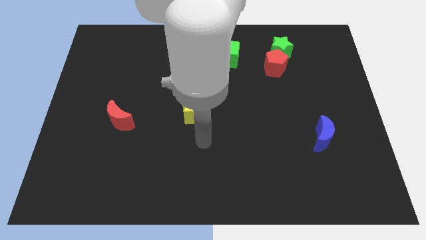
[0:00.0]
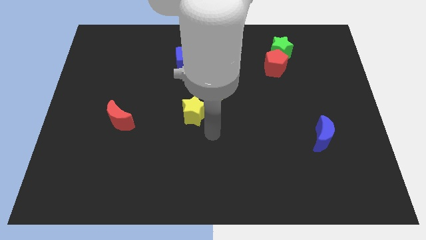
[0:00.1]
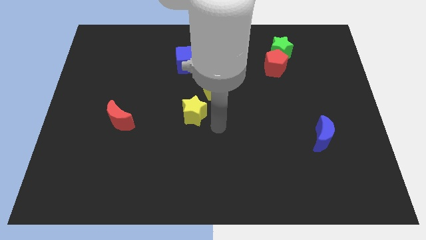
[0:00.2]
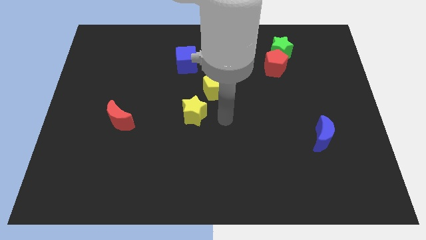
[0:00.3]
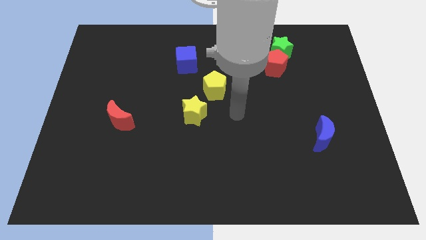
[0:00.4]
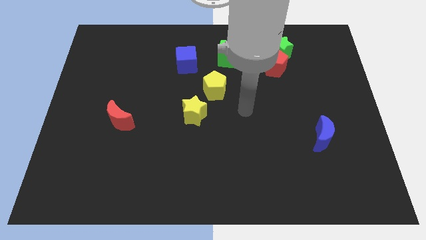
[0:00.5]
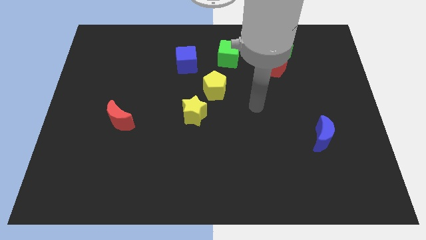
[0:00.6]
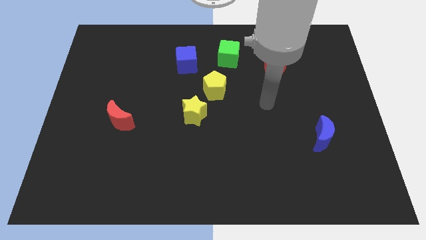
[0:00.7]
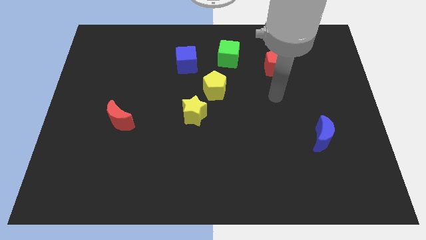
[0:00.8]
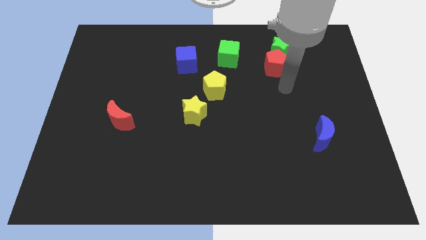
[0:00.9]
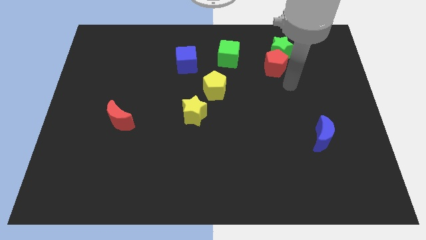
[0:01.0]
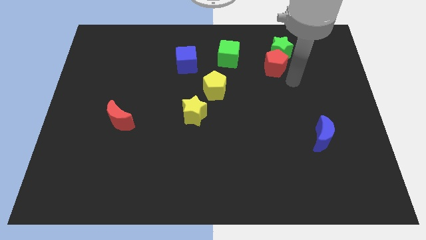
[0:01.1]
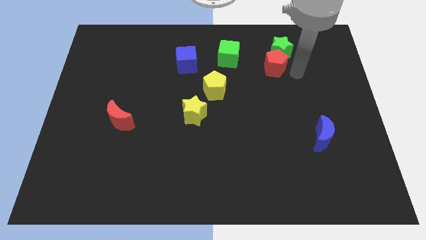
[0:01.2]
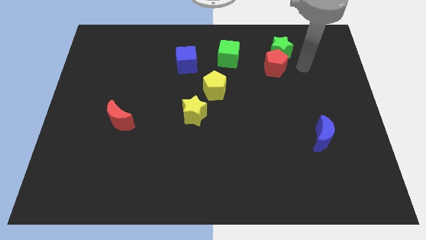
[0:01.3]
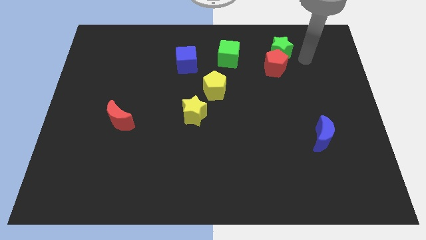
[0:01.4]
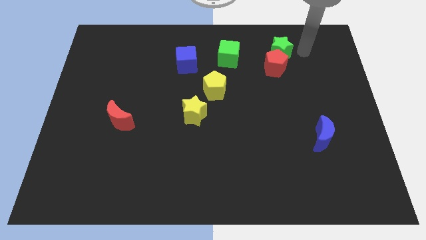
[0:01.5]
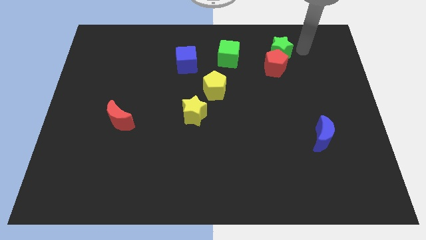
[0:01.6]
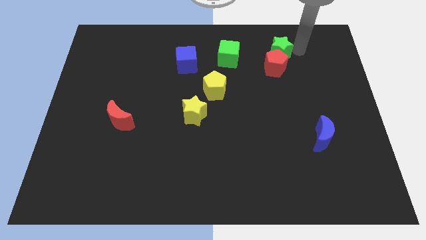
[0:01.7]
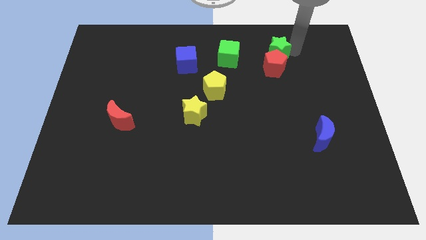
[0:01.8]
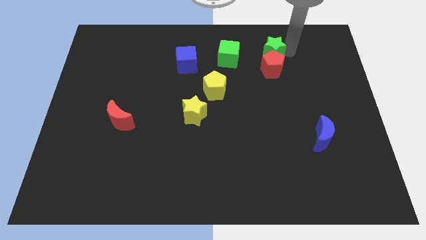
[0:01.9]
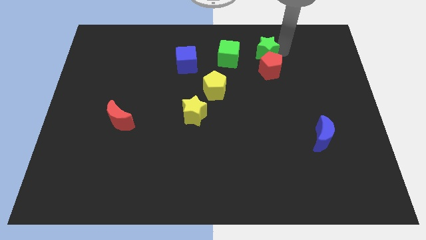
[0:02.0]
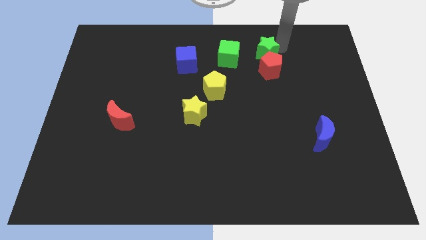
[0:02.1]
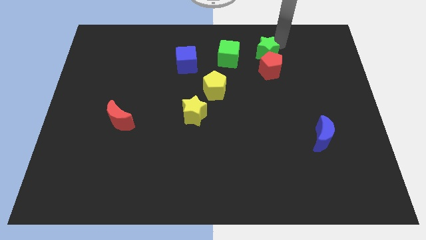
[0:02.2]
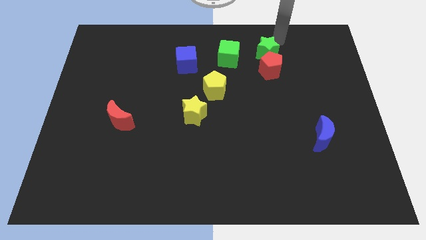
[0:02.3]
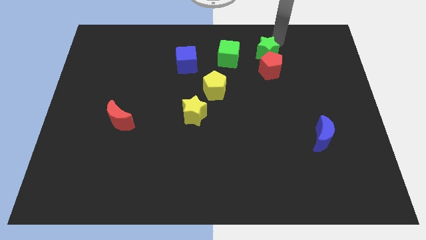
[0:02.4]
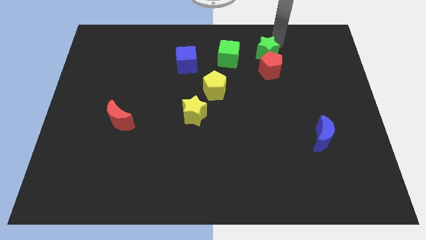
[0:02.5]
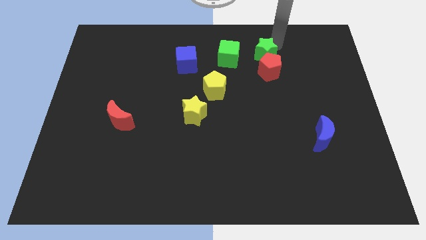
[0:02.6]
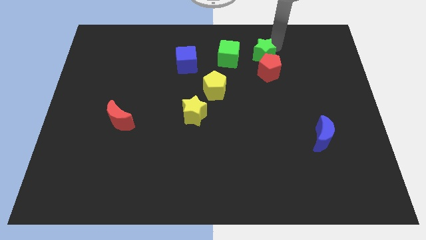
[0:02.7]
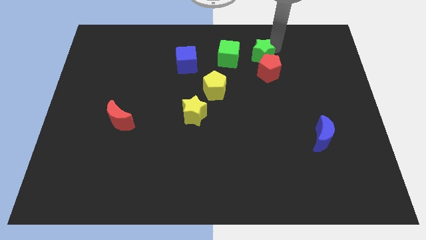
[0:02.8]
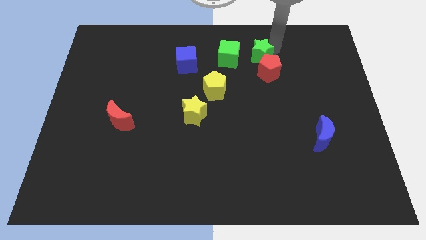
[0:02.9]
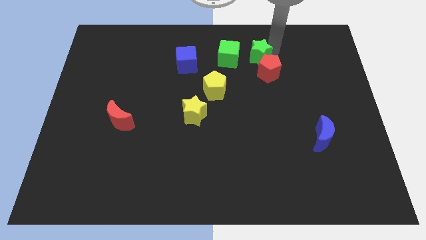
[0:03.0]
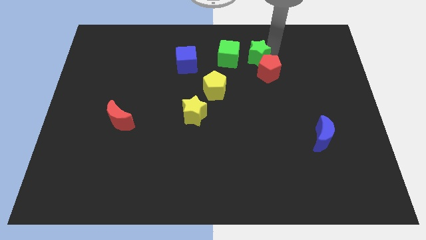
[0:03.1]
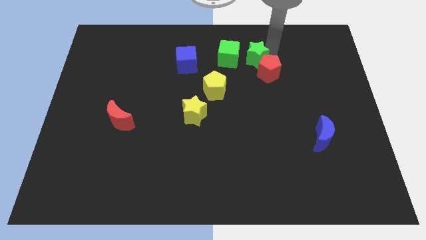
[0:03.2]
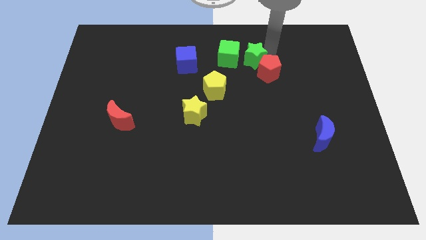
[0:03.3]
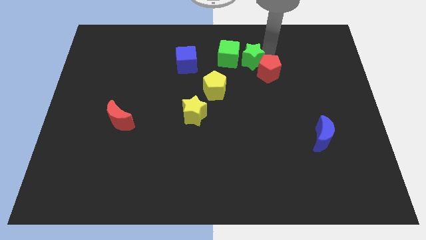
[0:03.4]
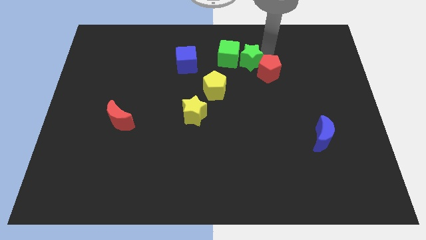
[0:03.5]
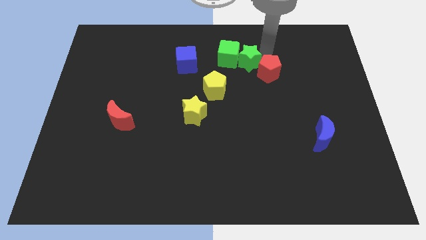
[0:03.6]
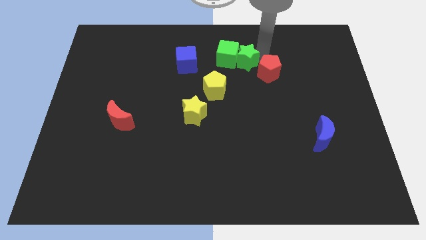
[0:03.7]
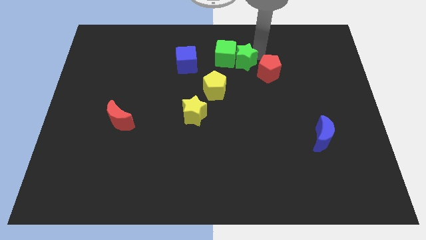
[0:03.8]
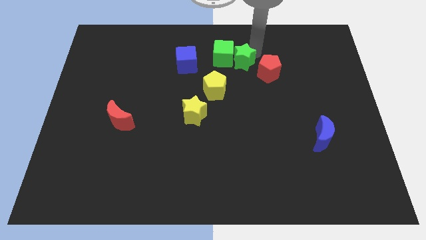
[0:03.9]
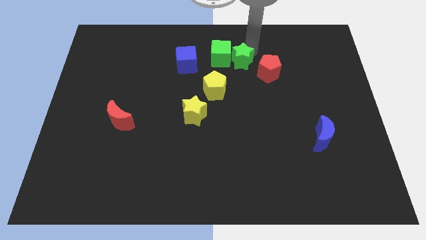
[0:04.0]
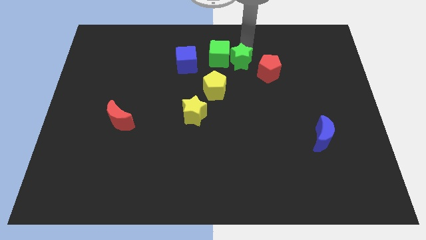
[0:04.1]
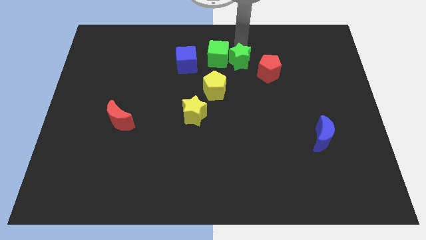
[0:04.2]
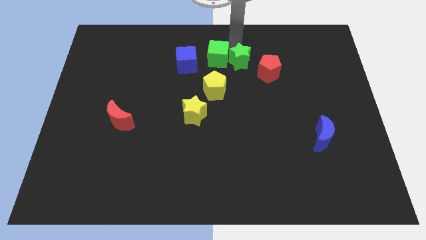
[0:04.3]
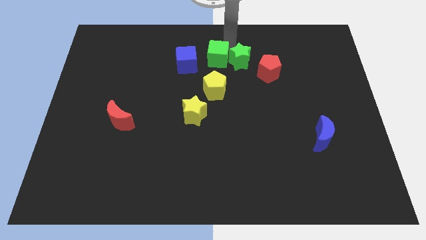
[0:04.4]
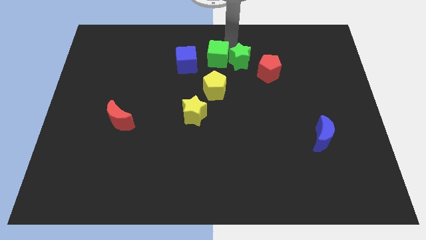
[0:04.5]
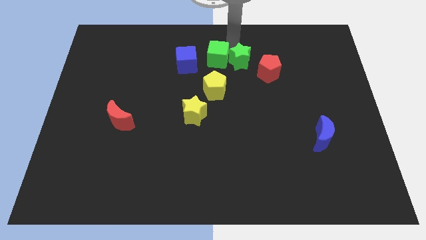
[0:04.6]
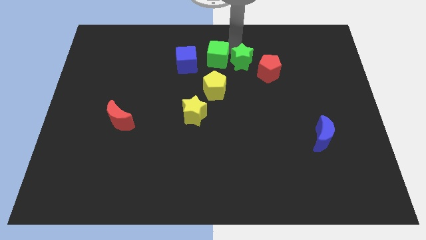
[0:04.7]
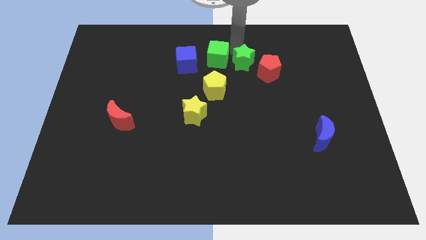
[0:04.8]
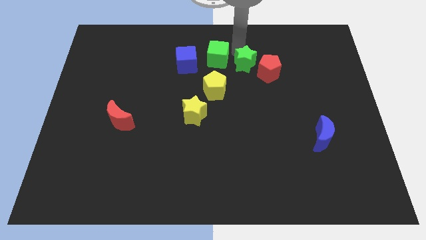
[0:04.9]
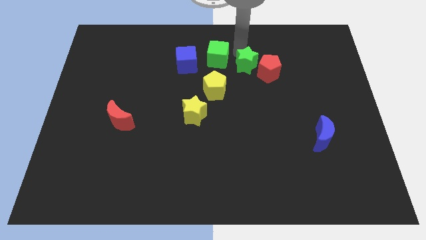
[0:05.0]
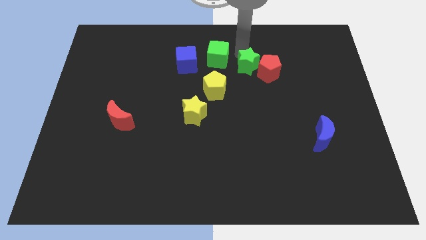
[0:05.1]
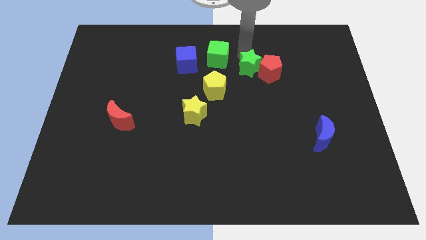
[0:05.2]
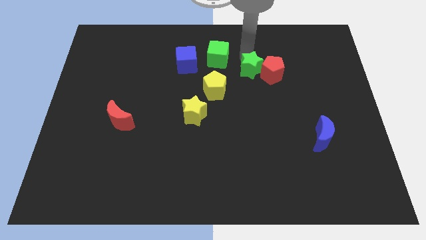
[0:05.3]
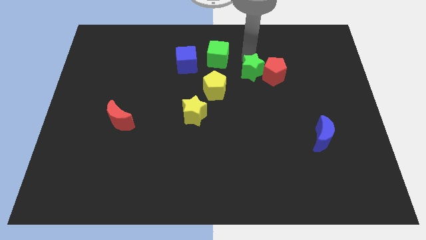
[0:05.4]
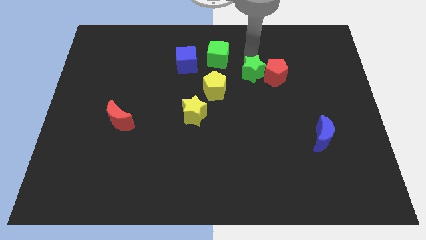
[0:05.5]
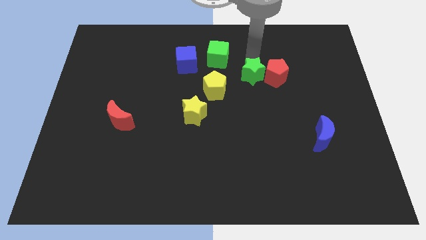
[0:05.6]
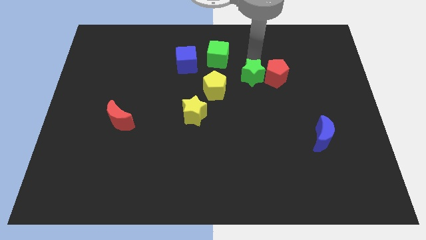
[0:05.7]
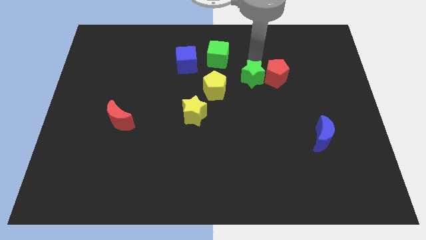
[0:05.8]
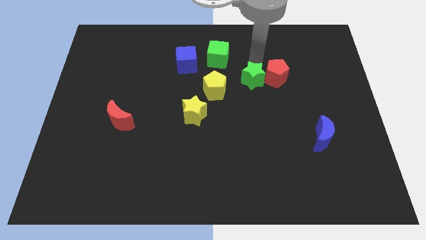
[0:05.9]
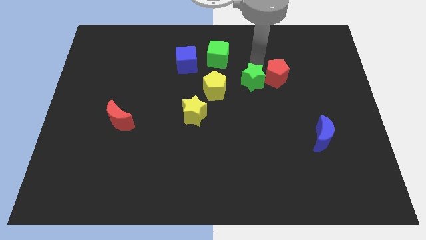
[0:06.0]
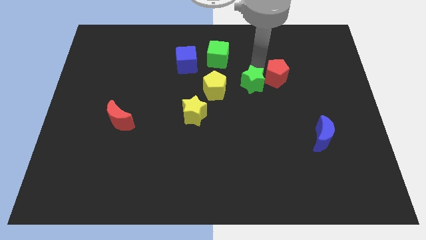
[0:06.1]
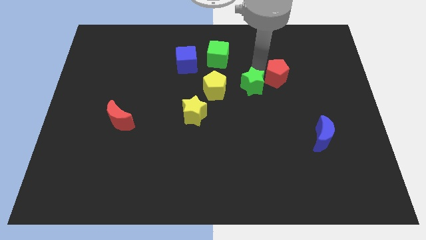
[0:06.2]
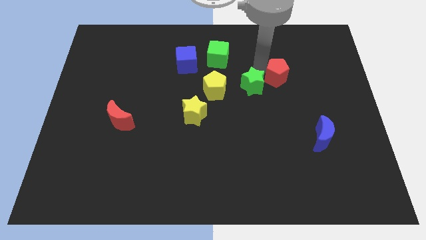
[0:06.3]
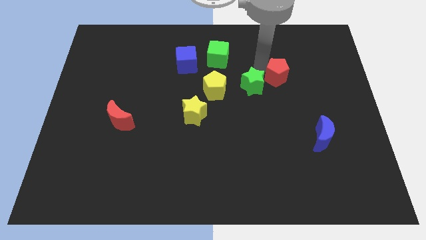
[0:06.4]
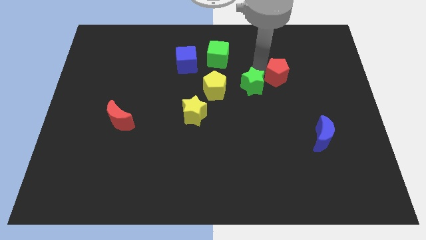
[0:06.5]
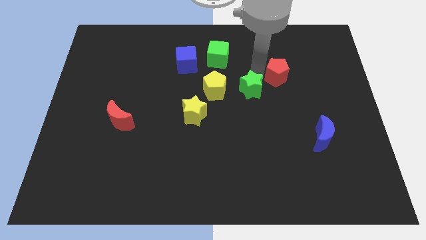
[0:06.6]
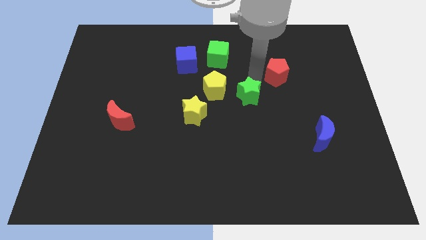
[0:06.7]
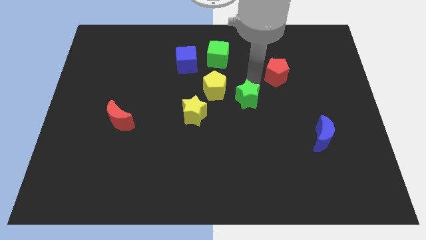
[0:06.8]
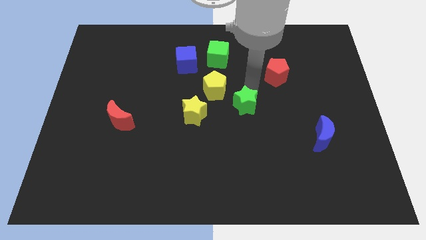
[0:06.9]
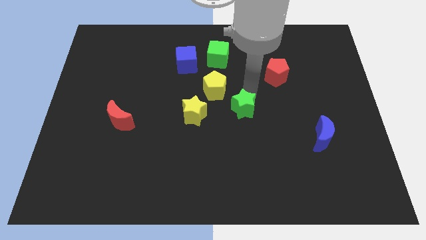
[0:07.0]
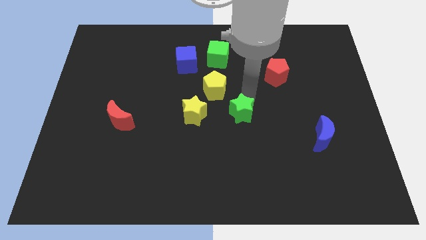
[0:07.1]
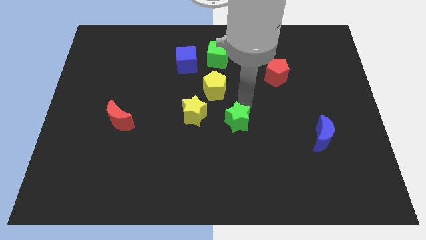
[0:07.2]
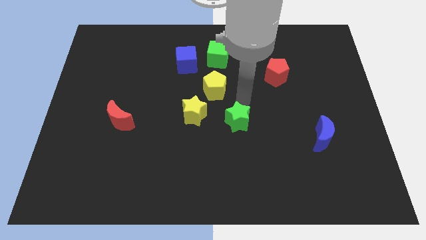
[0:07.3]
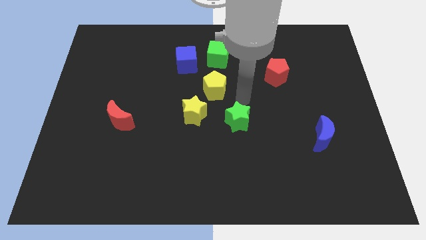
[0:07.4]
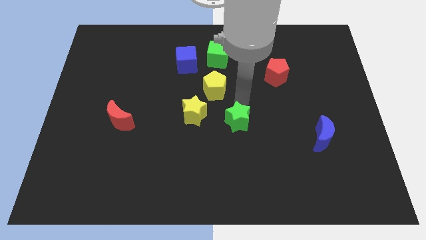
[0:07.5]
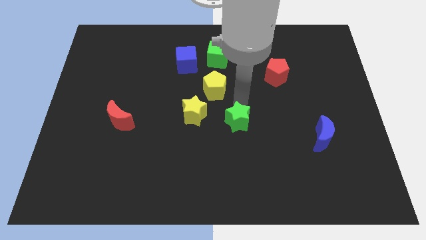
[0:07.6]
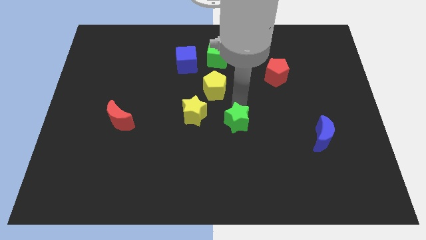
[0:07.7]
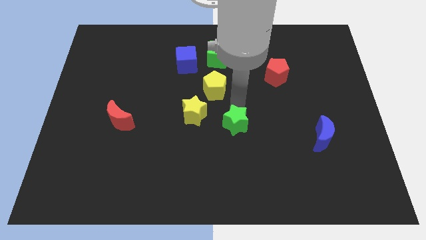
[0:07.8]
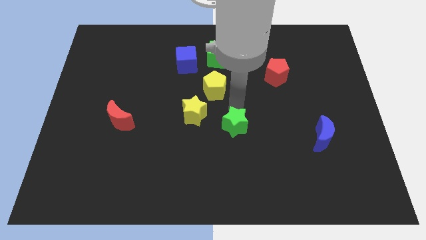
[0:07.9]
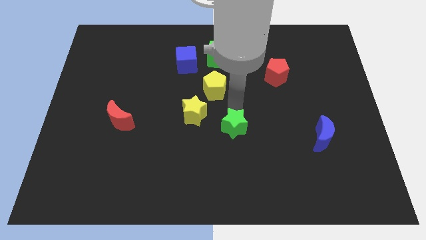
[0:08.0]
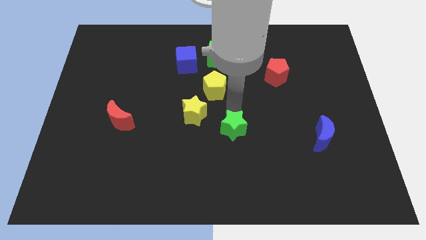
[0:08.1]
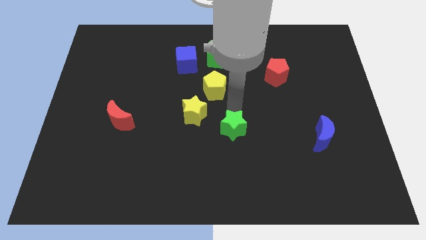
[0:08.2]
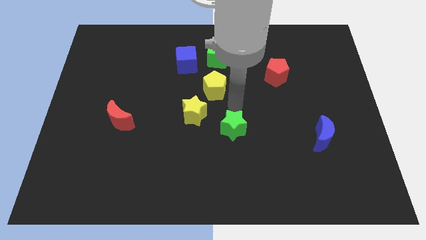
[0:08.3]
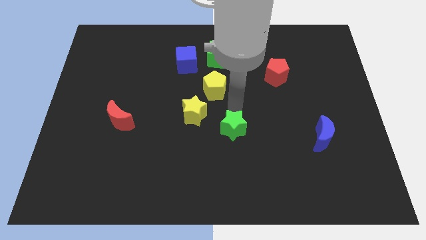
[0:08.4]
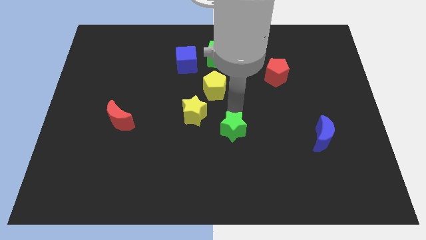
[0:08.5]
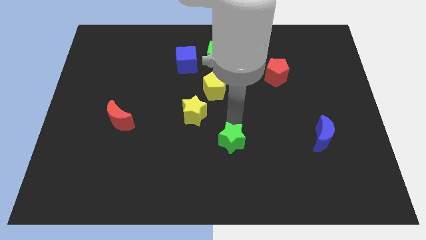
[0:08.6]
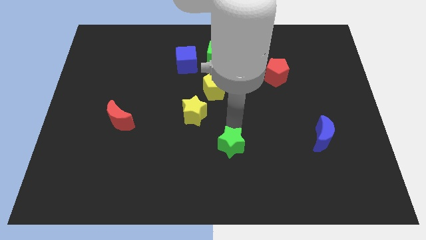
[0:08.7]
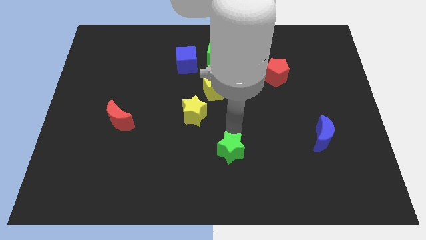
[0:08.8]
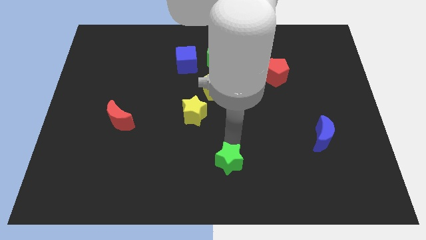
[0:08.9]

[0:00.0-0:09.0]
put the green star to the bottom side
